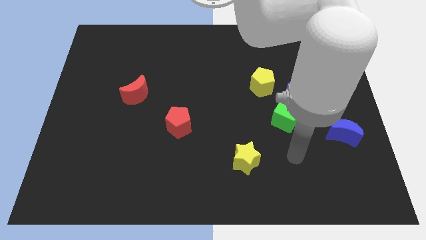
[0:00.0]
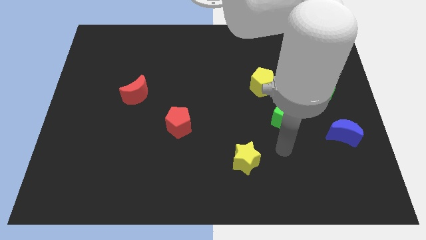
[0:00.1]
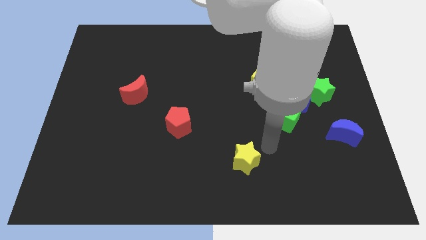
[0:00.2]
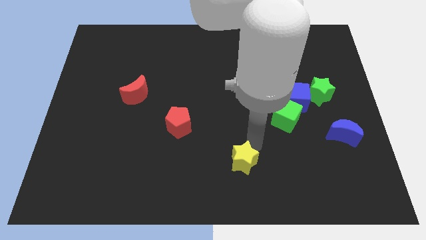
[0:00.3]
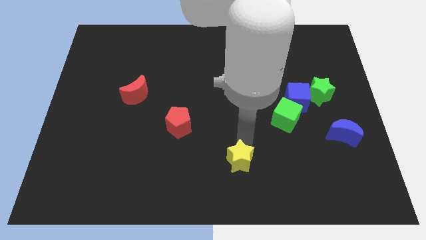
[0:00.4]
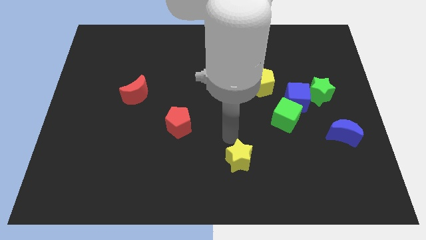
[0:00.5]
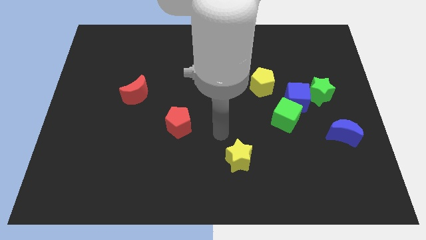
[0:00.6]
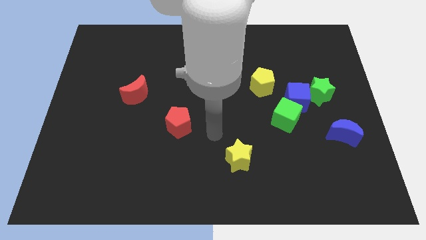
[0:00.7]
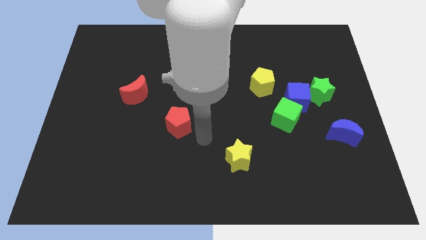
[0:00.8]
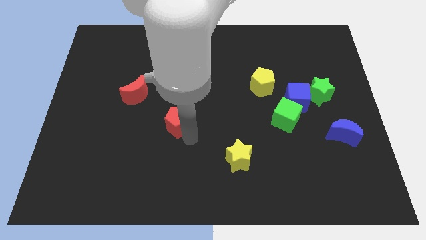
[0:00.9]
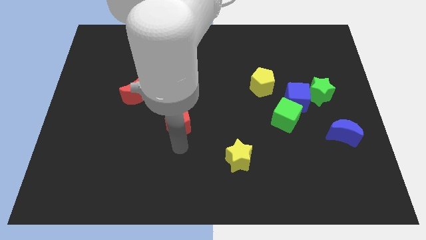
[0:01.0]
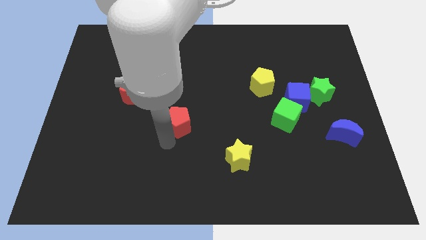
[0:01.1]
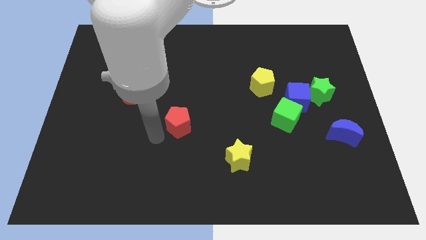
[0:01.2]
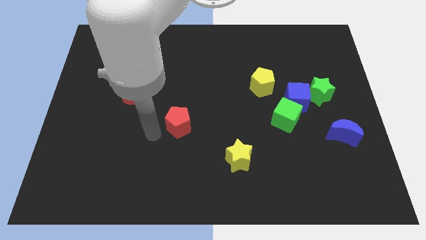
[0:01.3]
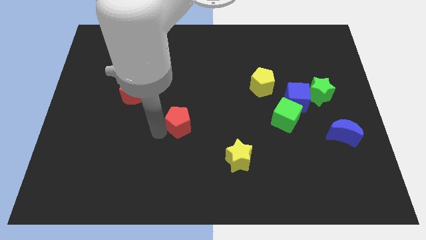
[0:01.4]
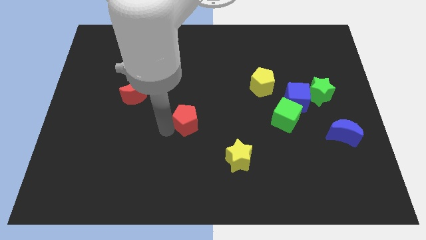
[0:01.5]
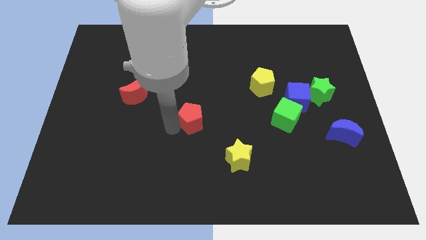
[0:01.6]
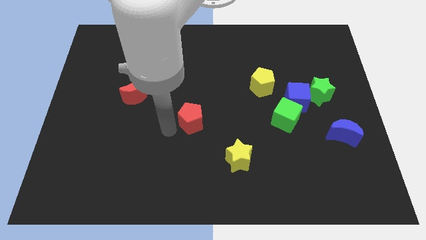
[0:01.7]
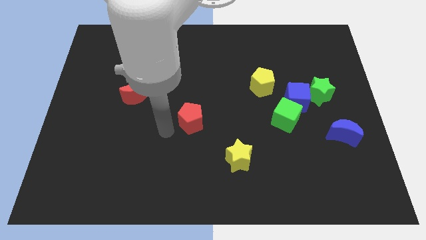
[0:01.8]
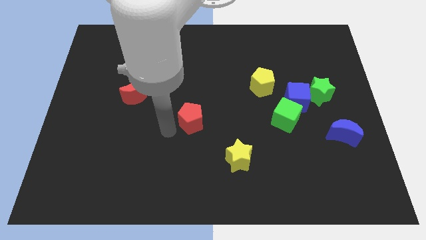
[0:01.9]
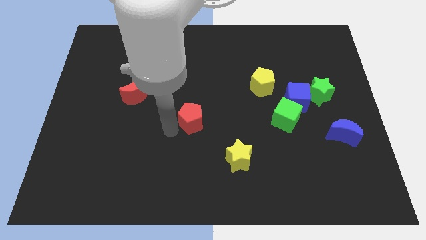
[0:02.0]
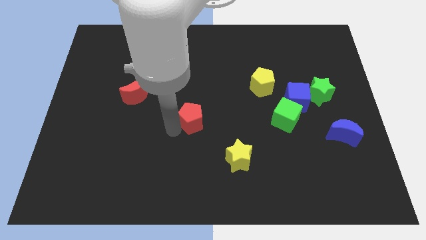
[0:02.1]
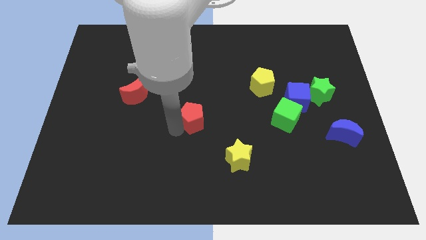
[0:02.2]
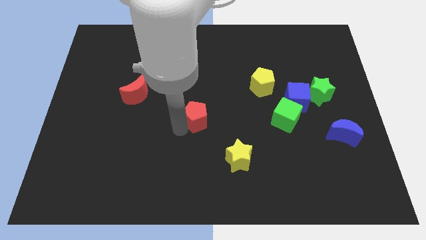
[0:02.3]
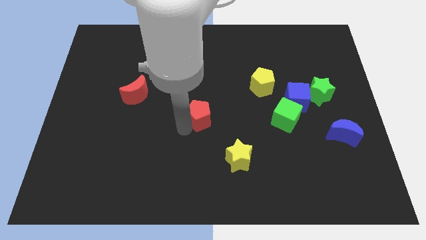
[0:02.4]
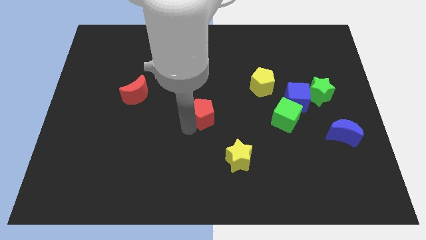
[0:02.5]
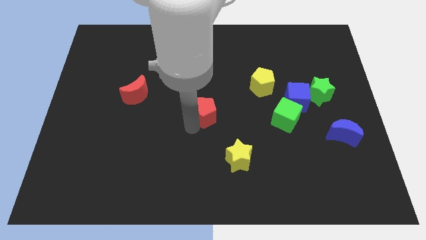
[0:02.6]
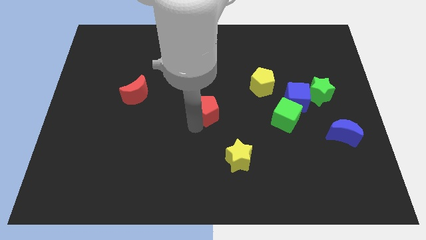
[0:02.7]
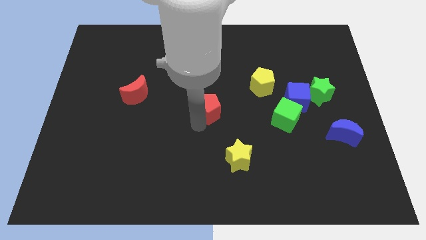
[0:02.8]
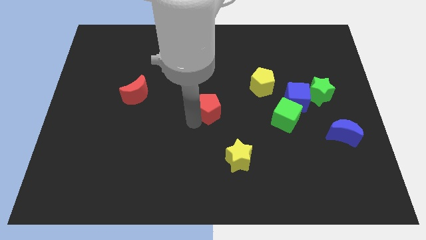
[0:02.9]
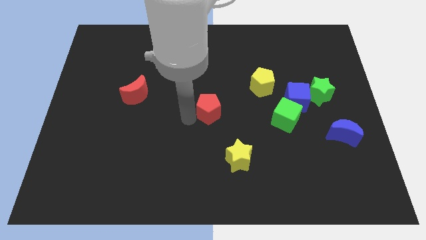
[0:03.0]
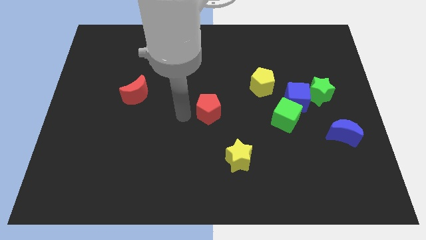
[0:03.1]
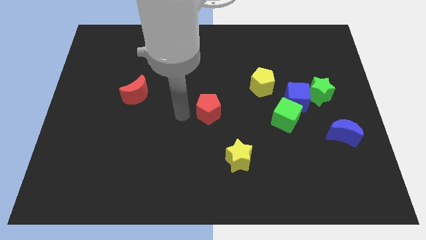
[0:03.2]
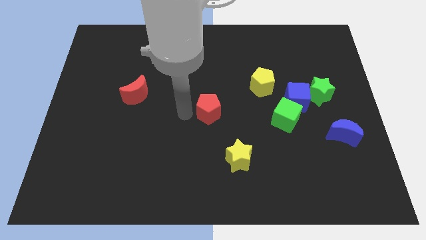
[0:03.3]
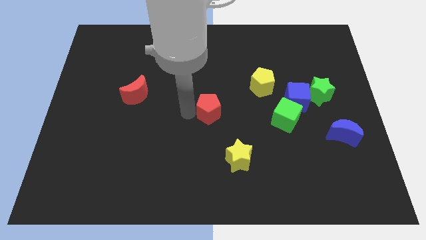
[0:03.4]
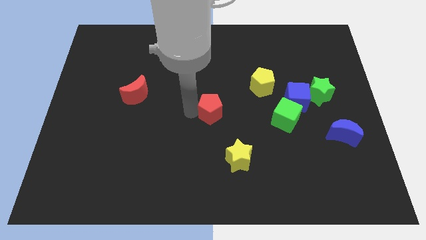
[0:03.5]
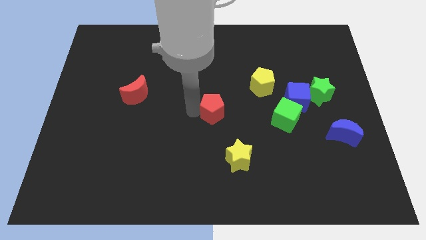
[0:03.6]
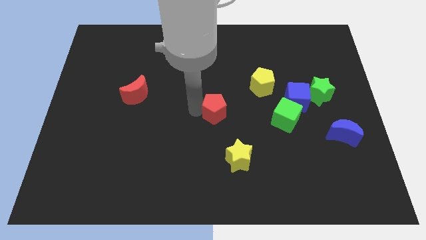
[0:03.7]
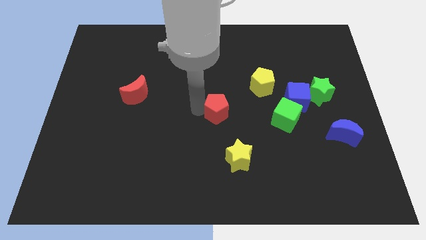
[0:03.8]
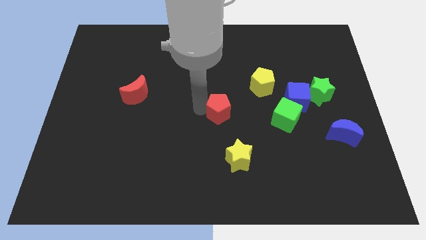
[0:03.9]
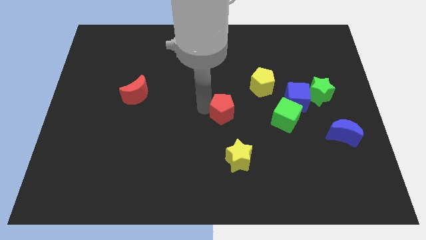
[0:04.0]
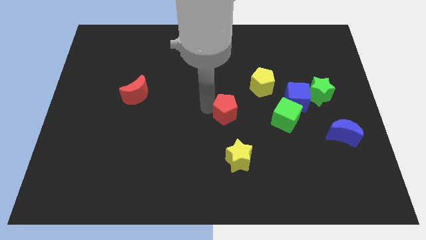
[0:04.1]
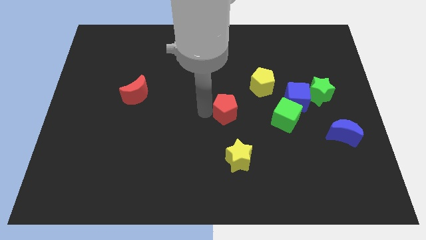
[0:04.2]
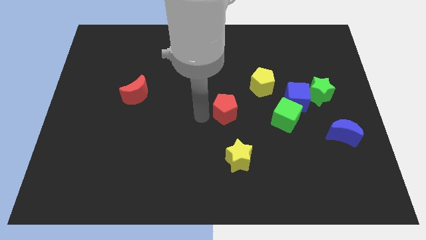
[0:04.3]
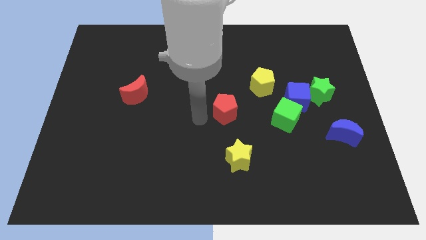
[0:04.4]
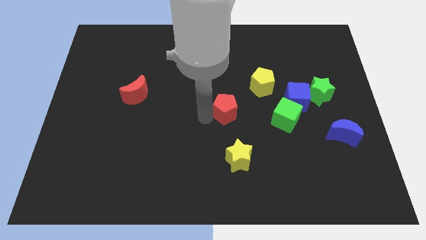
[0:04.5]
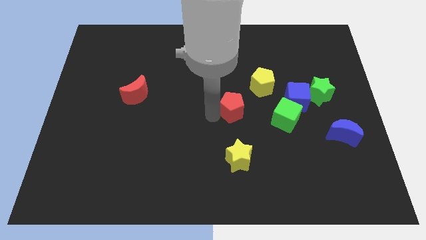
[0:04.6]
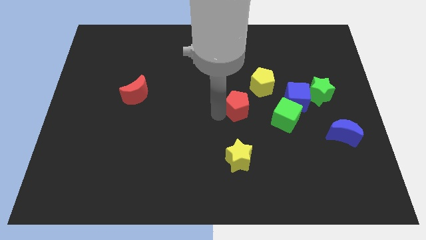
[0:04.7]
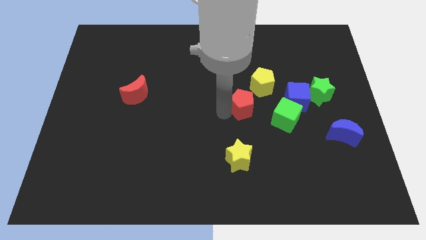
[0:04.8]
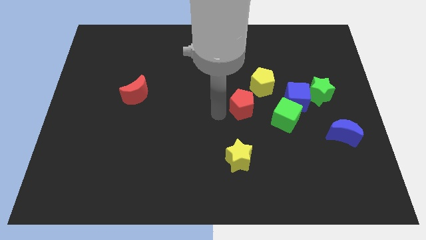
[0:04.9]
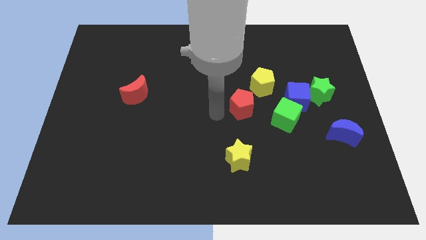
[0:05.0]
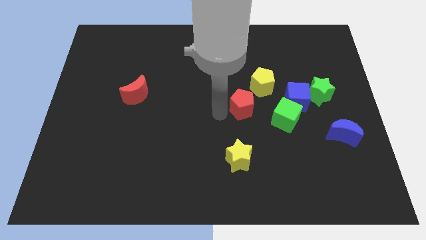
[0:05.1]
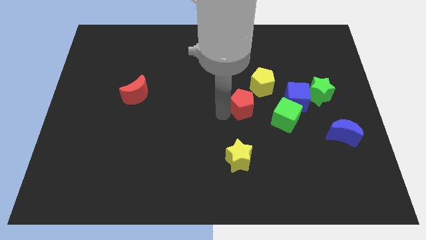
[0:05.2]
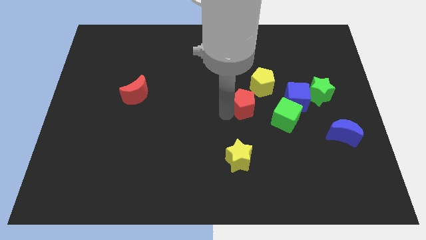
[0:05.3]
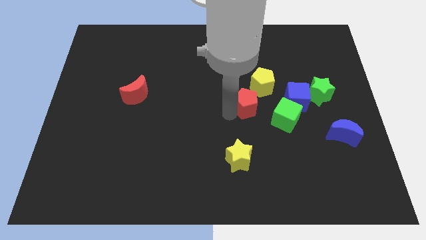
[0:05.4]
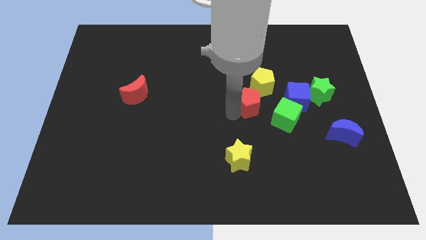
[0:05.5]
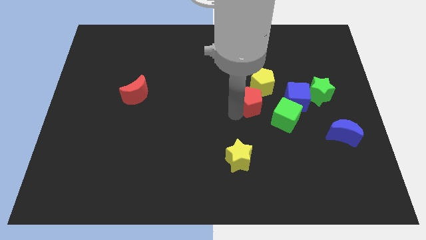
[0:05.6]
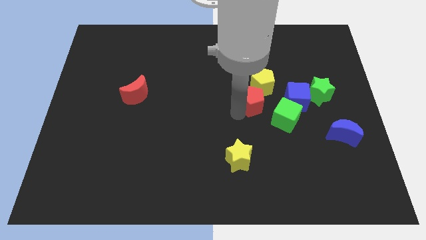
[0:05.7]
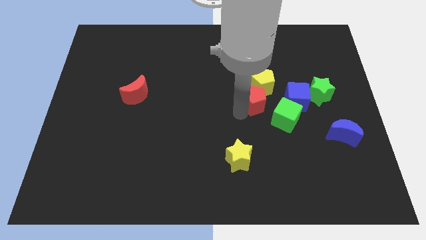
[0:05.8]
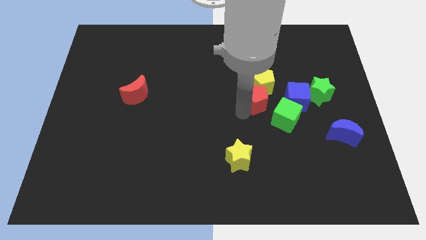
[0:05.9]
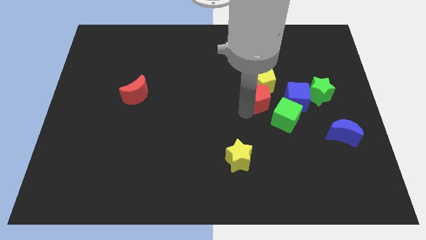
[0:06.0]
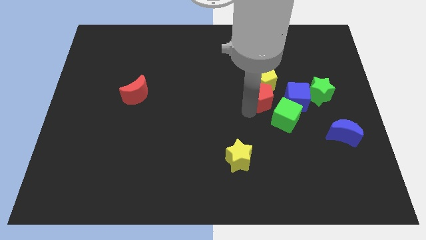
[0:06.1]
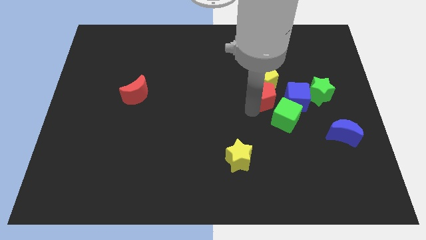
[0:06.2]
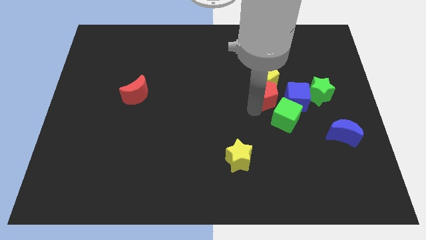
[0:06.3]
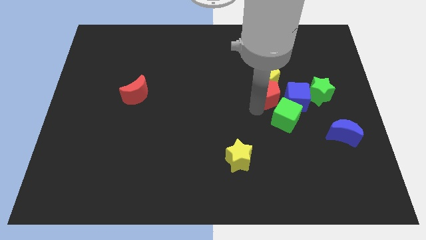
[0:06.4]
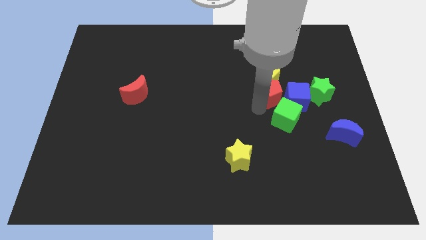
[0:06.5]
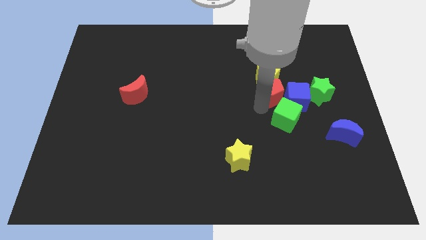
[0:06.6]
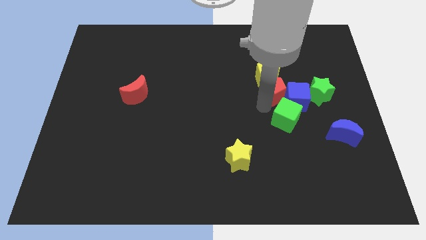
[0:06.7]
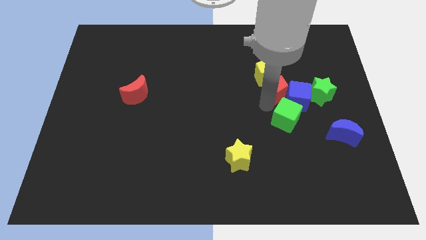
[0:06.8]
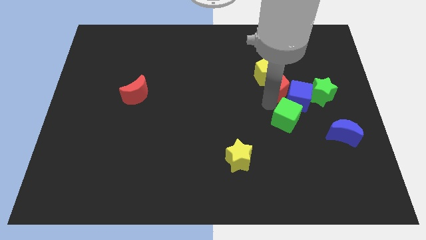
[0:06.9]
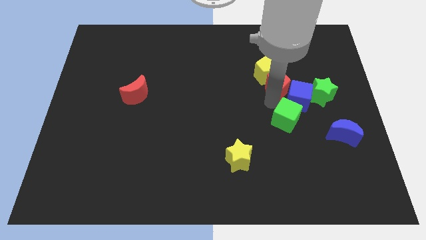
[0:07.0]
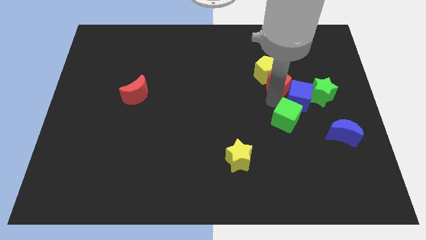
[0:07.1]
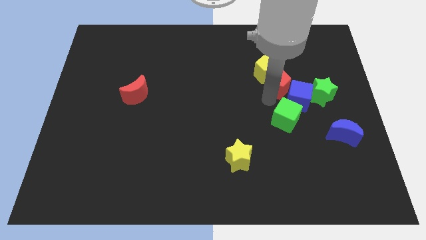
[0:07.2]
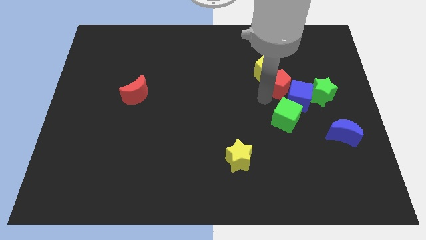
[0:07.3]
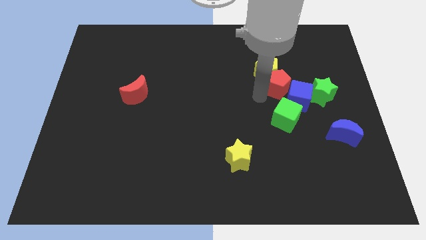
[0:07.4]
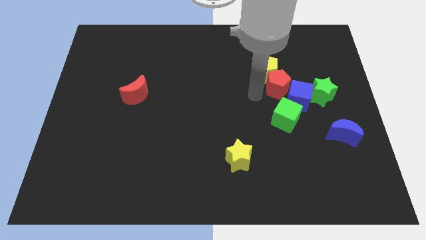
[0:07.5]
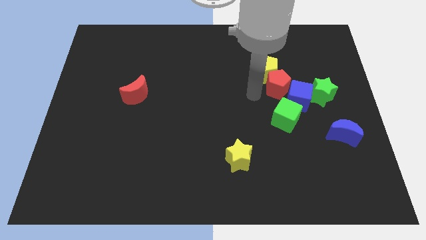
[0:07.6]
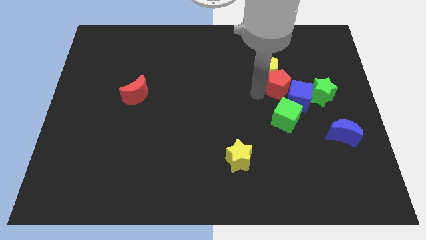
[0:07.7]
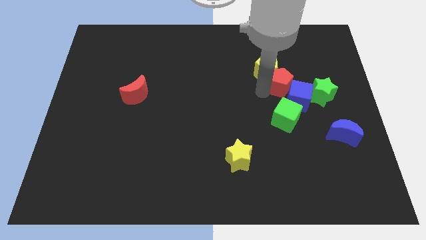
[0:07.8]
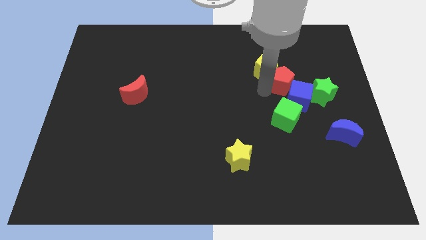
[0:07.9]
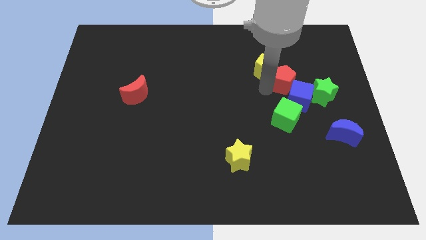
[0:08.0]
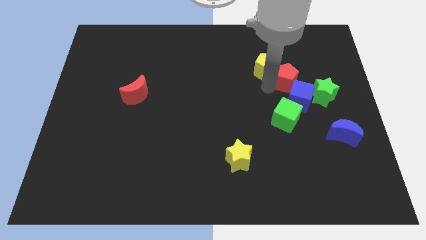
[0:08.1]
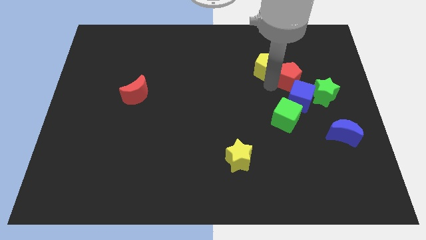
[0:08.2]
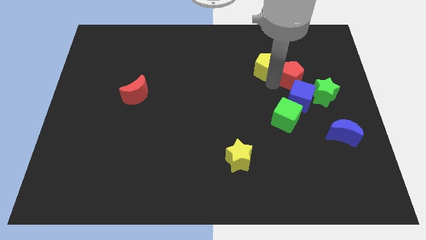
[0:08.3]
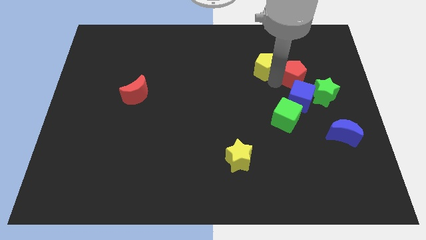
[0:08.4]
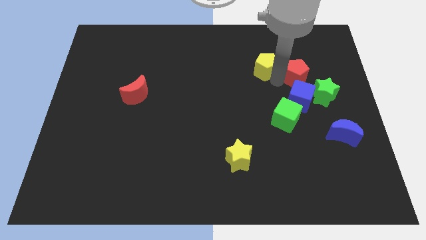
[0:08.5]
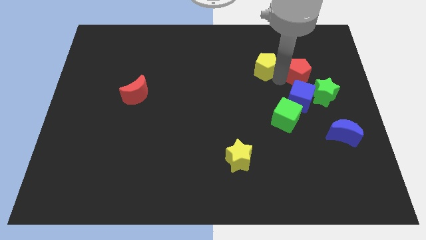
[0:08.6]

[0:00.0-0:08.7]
put the red pentagon to the top right side of the blue cube
